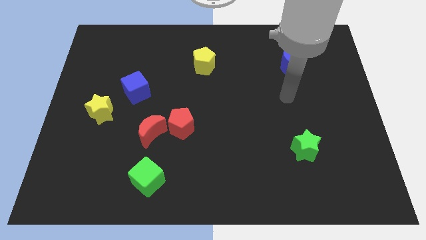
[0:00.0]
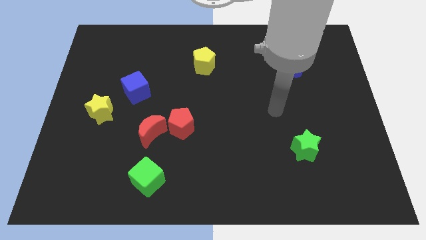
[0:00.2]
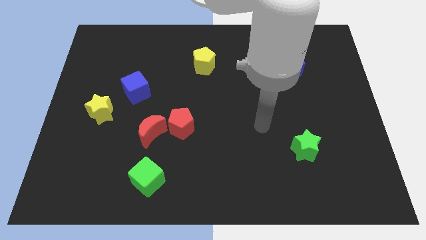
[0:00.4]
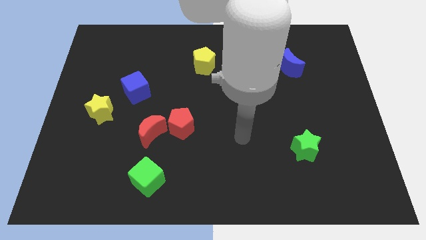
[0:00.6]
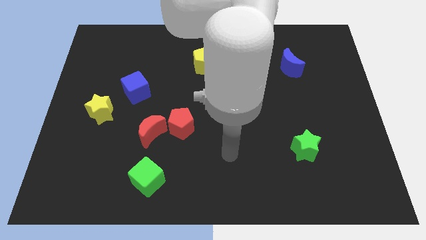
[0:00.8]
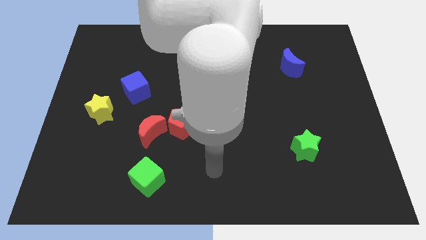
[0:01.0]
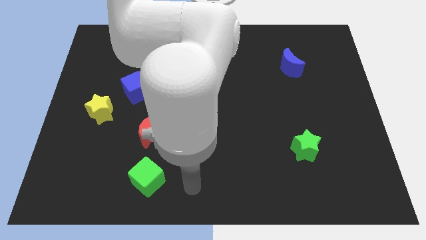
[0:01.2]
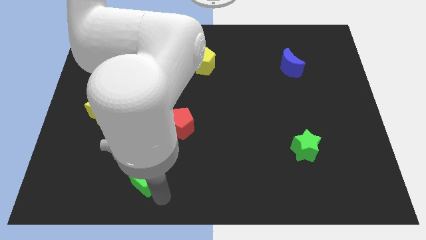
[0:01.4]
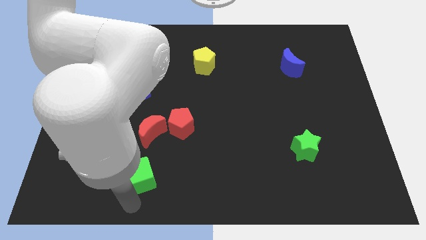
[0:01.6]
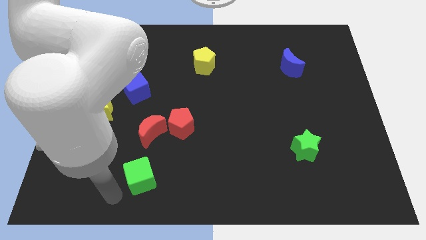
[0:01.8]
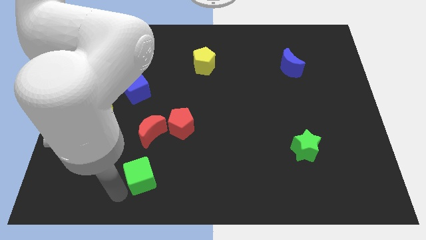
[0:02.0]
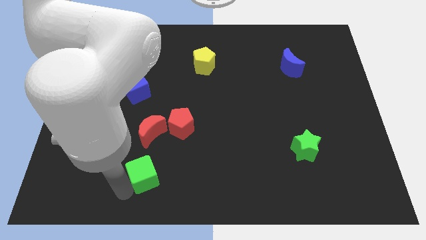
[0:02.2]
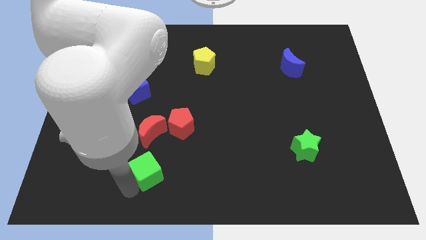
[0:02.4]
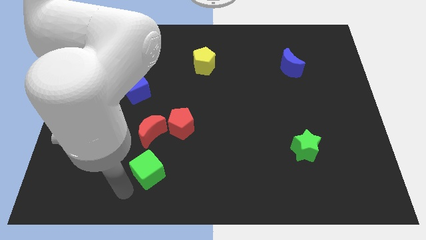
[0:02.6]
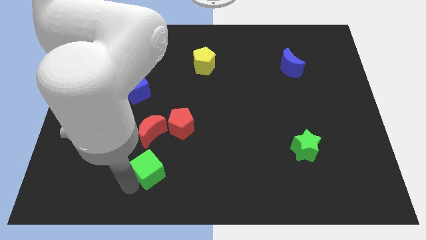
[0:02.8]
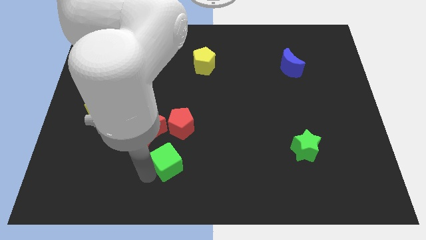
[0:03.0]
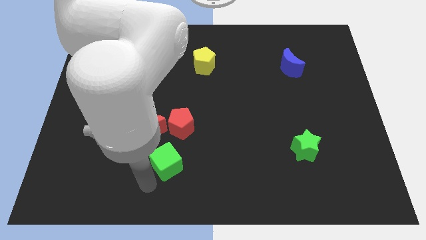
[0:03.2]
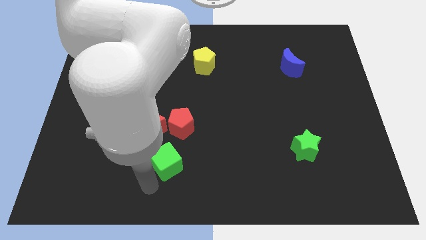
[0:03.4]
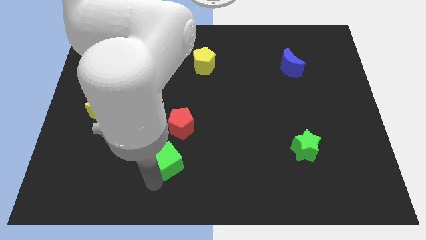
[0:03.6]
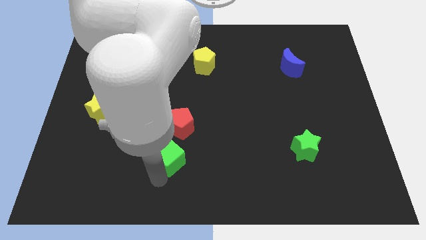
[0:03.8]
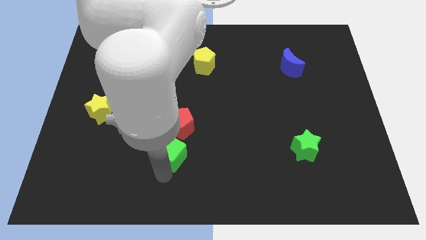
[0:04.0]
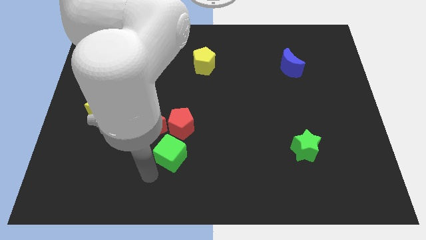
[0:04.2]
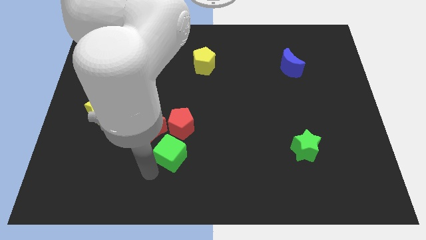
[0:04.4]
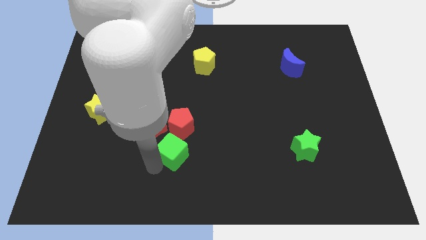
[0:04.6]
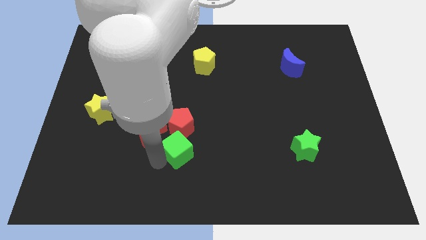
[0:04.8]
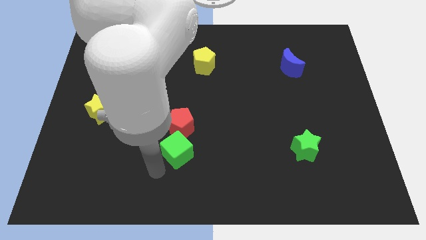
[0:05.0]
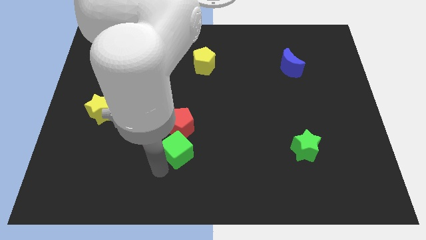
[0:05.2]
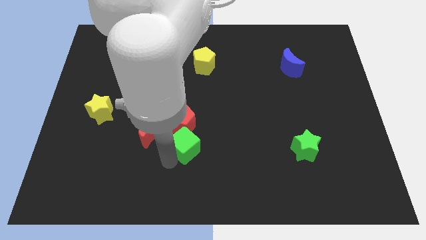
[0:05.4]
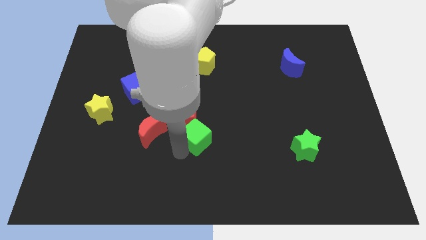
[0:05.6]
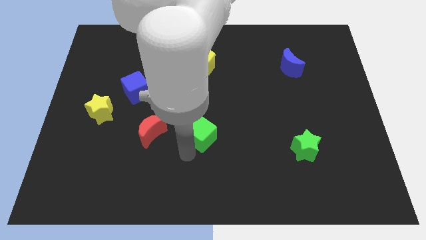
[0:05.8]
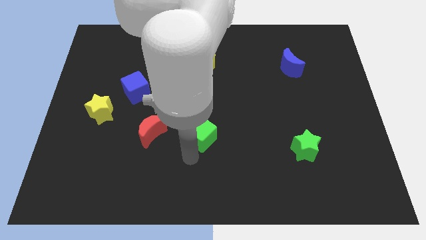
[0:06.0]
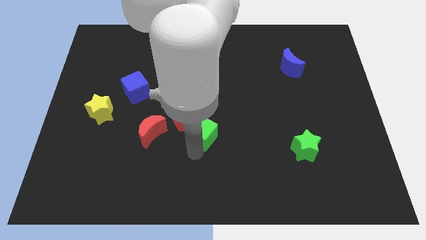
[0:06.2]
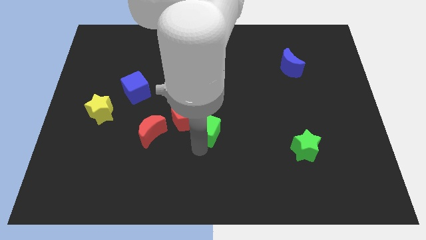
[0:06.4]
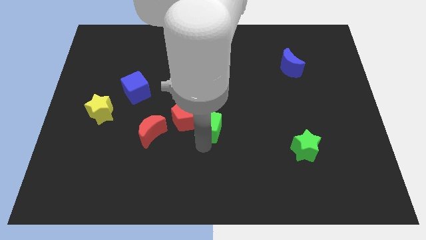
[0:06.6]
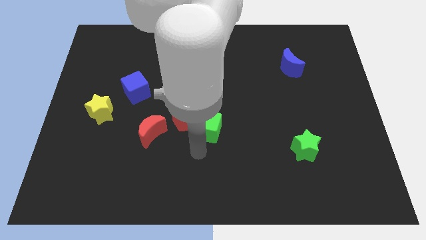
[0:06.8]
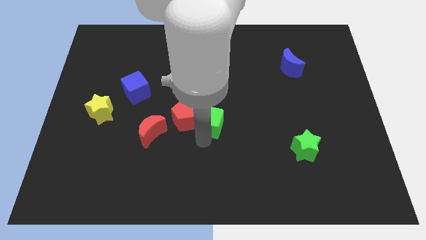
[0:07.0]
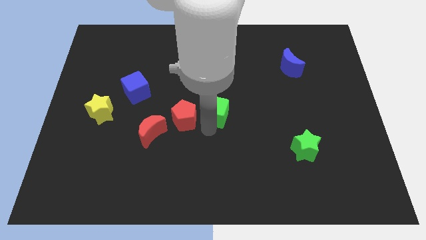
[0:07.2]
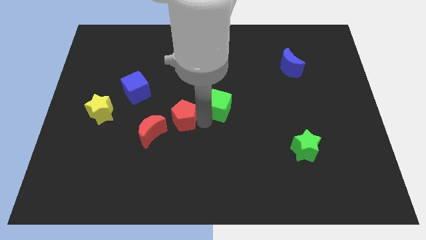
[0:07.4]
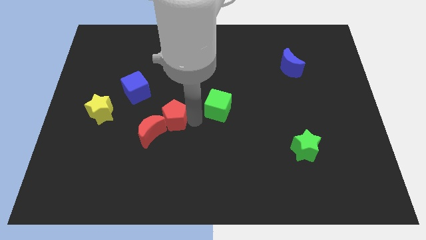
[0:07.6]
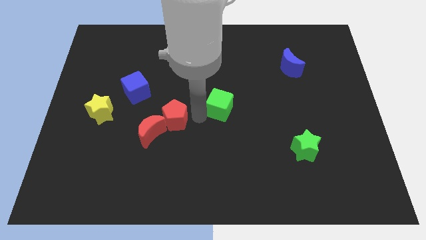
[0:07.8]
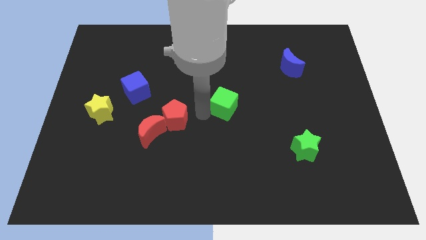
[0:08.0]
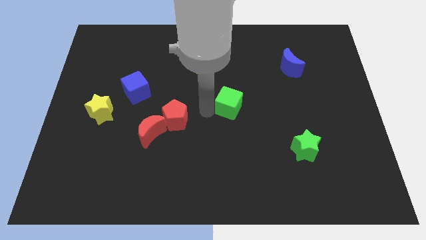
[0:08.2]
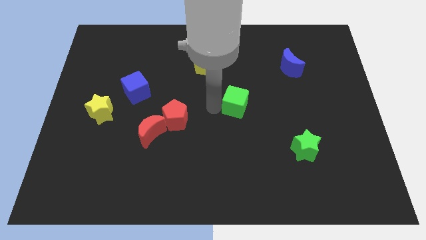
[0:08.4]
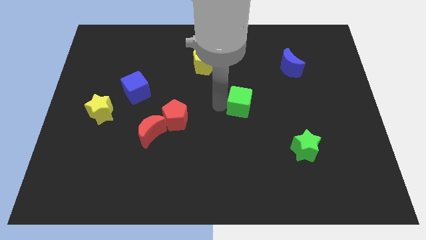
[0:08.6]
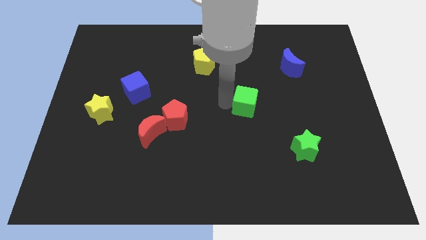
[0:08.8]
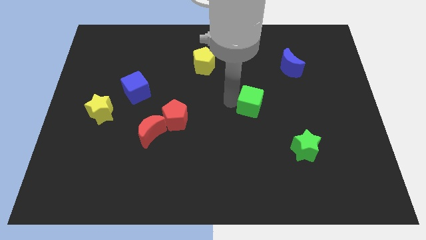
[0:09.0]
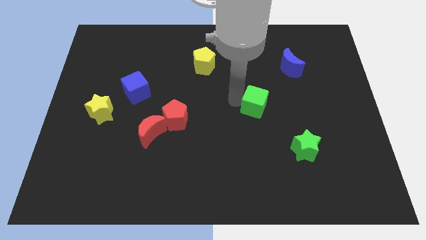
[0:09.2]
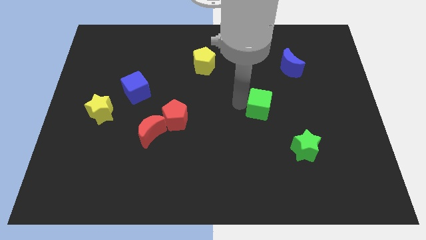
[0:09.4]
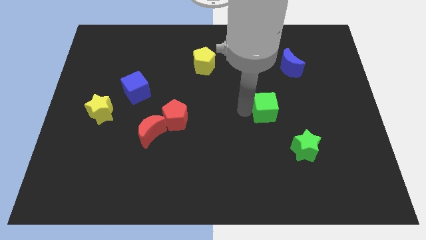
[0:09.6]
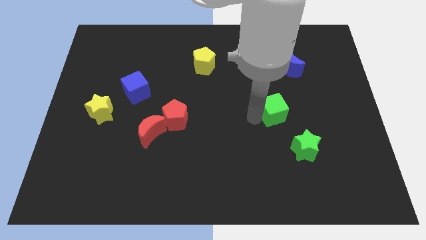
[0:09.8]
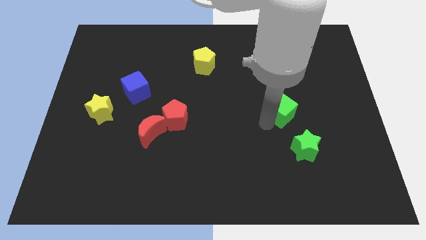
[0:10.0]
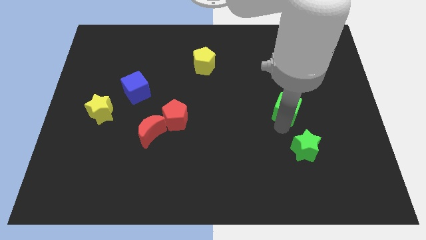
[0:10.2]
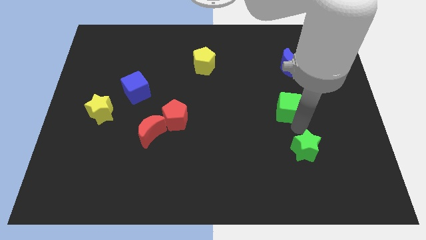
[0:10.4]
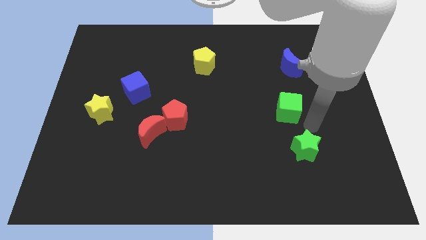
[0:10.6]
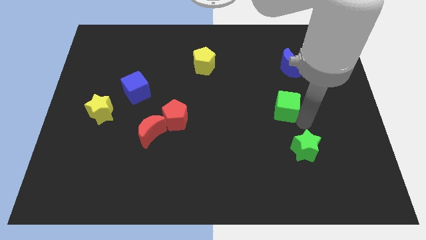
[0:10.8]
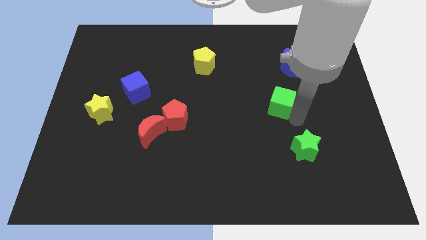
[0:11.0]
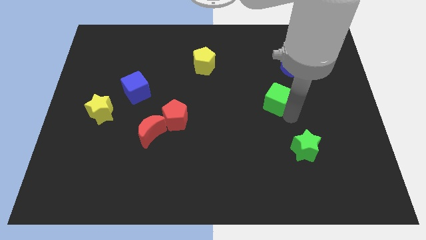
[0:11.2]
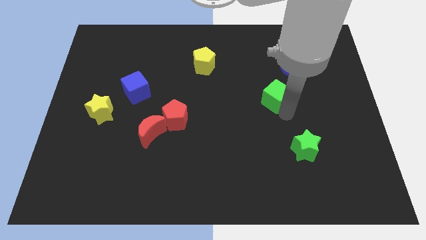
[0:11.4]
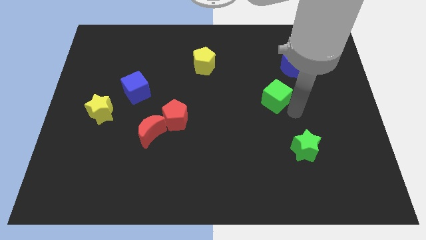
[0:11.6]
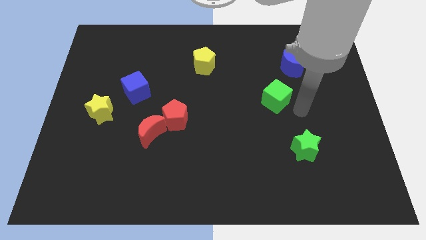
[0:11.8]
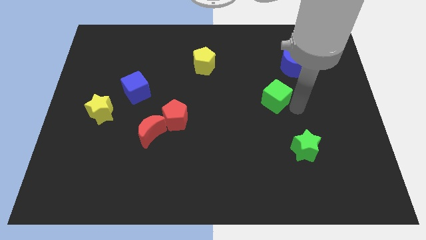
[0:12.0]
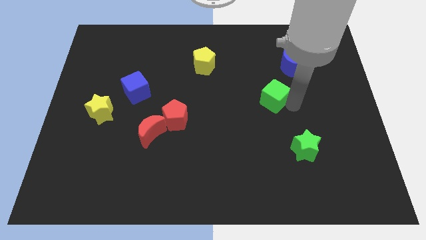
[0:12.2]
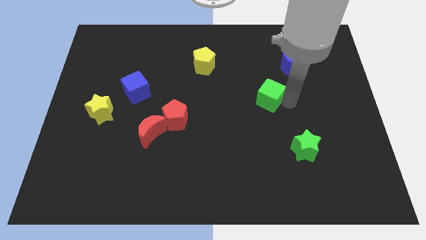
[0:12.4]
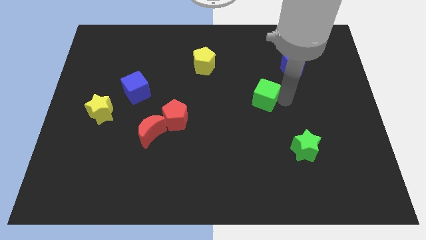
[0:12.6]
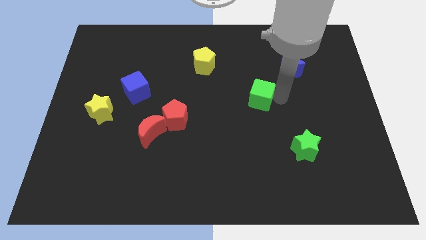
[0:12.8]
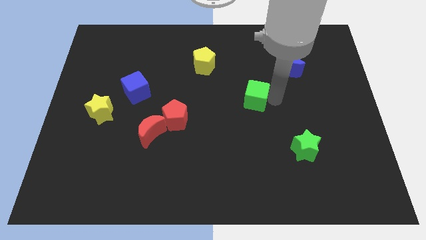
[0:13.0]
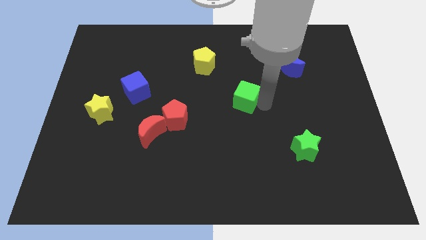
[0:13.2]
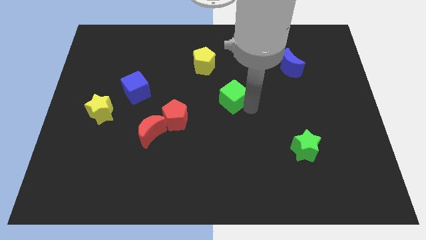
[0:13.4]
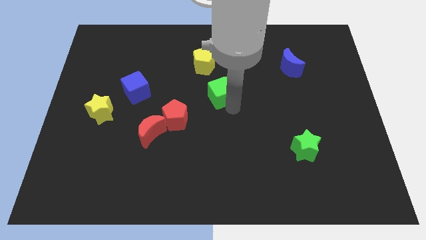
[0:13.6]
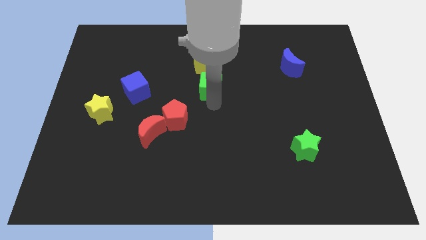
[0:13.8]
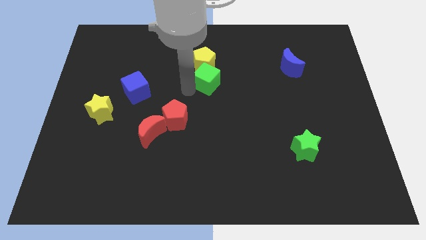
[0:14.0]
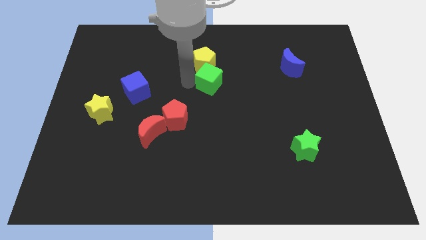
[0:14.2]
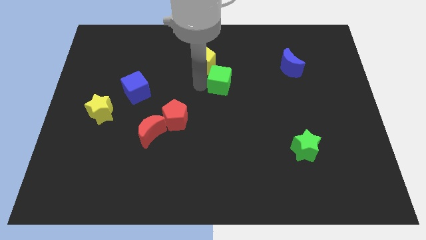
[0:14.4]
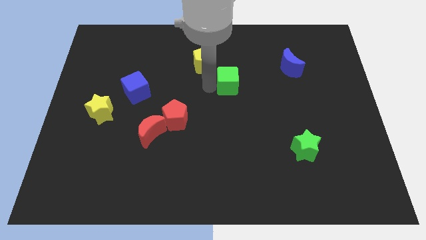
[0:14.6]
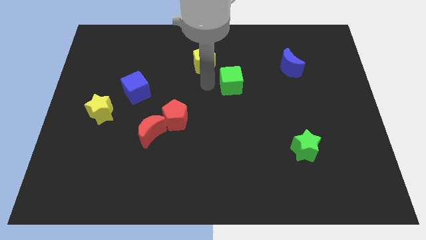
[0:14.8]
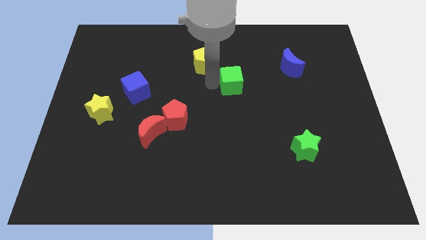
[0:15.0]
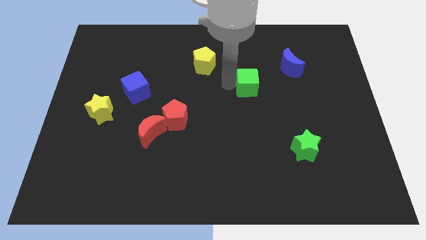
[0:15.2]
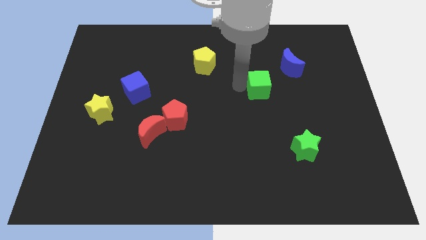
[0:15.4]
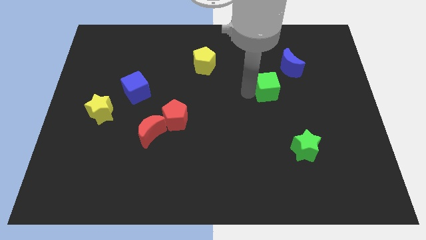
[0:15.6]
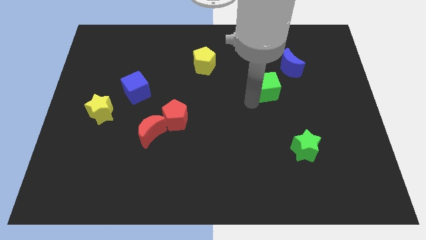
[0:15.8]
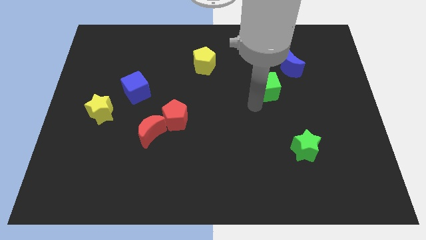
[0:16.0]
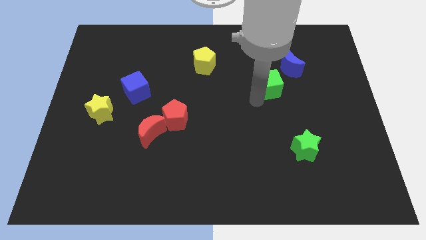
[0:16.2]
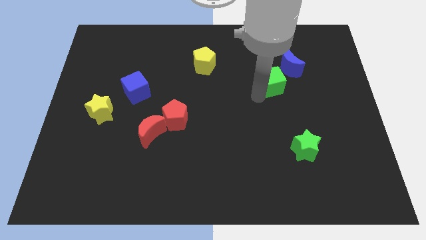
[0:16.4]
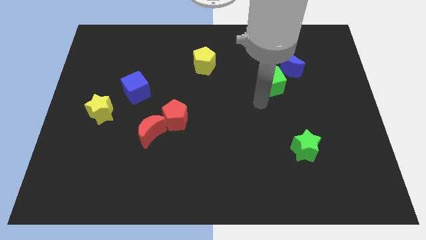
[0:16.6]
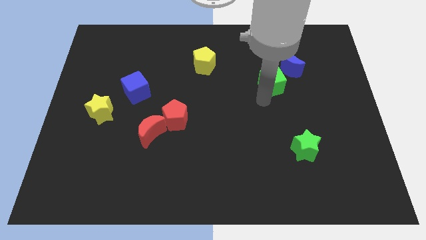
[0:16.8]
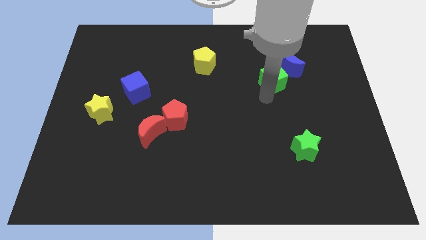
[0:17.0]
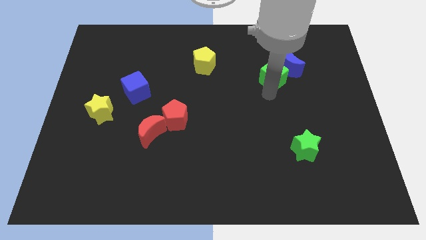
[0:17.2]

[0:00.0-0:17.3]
slide the green cube to the blue moon
